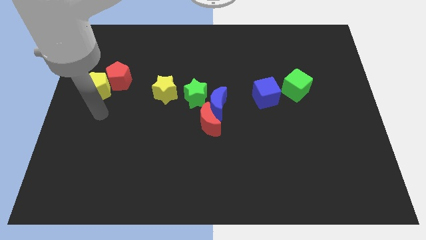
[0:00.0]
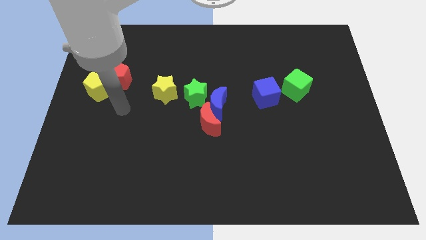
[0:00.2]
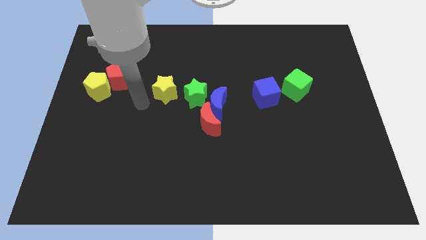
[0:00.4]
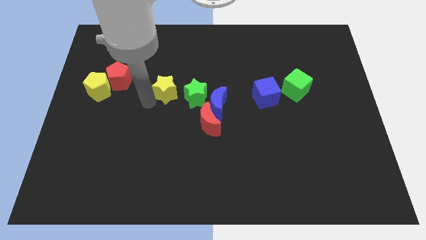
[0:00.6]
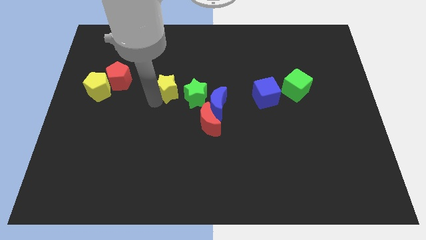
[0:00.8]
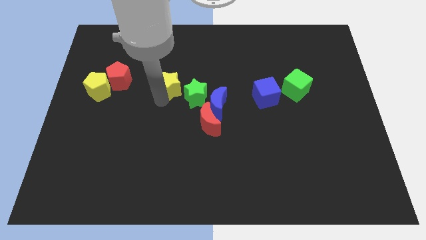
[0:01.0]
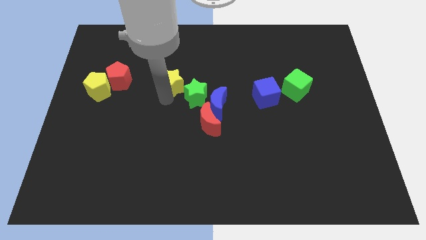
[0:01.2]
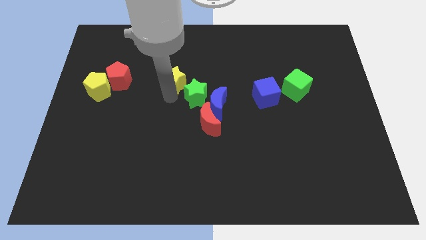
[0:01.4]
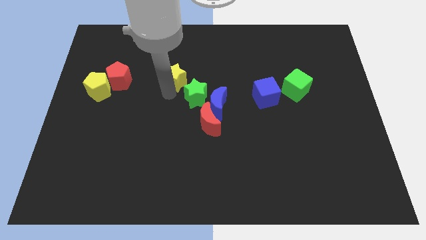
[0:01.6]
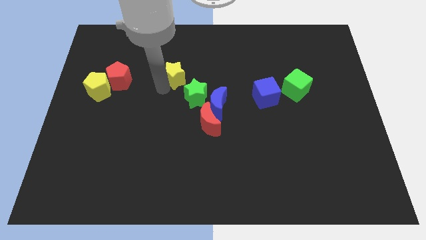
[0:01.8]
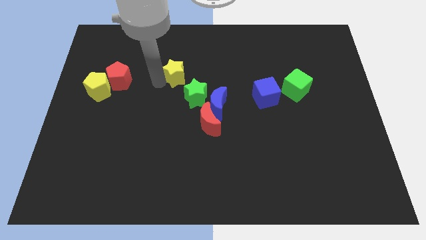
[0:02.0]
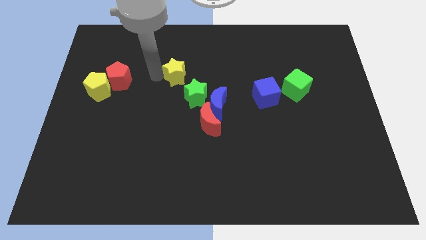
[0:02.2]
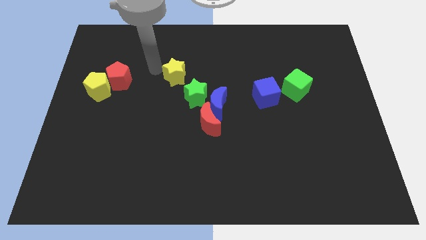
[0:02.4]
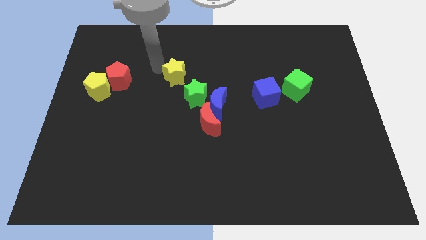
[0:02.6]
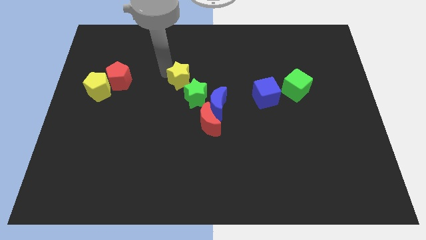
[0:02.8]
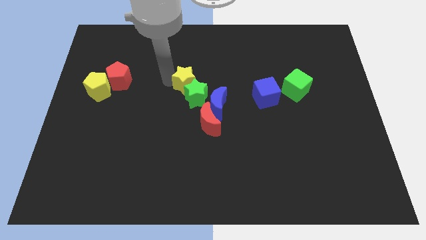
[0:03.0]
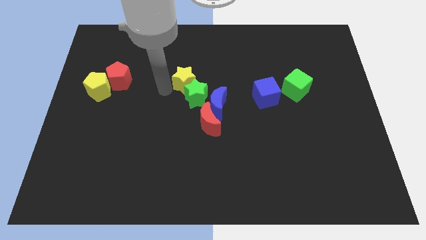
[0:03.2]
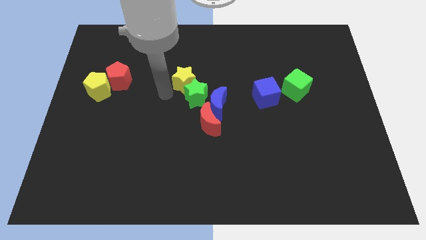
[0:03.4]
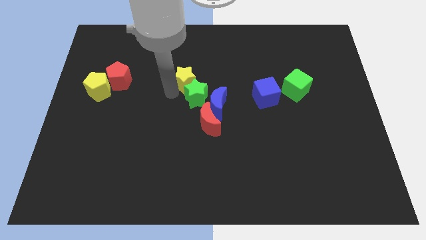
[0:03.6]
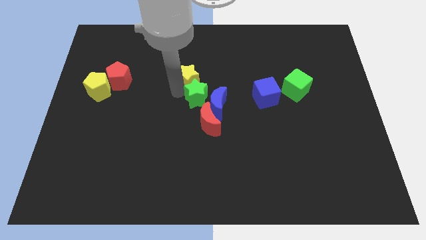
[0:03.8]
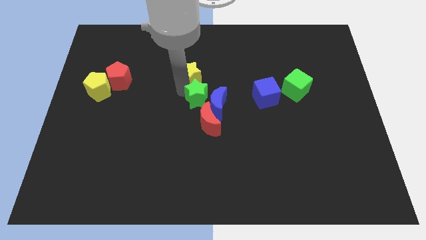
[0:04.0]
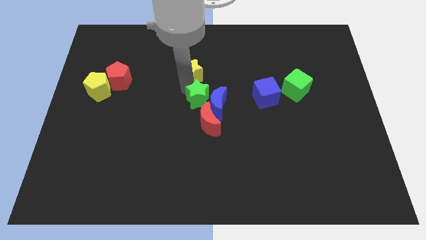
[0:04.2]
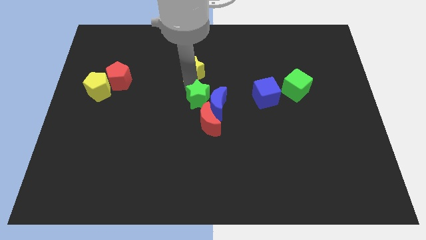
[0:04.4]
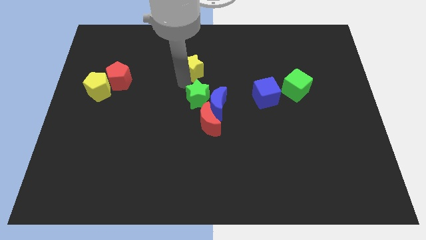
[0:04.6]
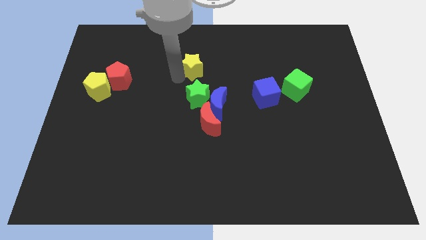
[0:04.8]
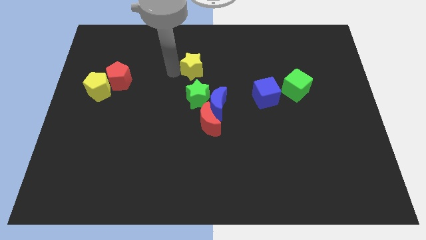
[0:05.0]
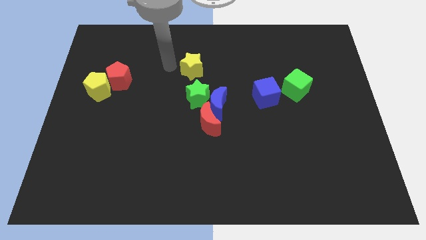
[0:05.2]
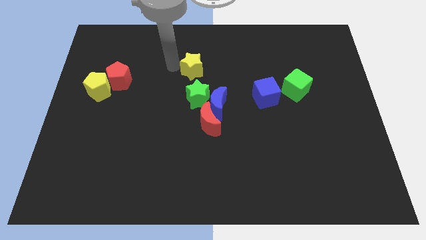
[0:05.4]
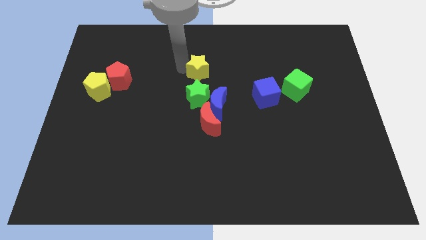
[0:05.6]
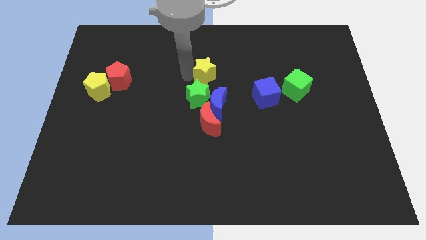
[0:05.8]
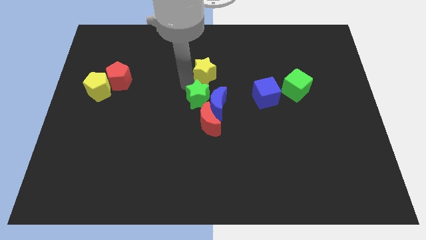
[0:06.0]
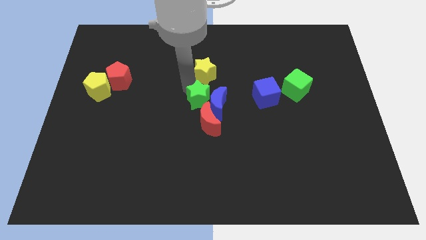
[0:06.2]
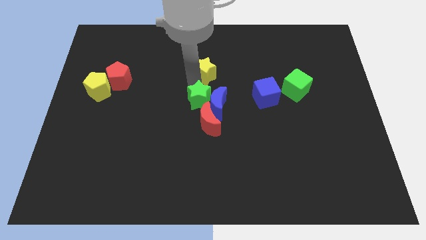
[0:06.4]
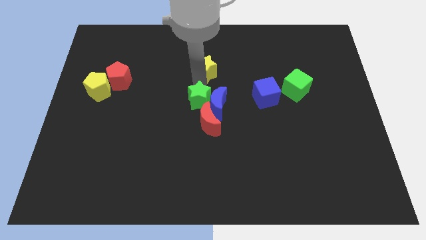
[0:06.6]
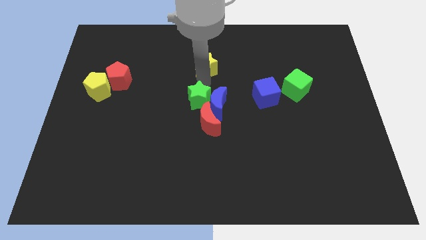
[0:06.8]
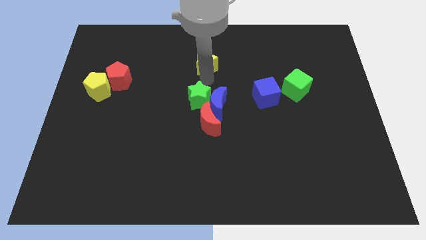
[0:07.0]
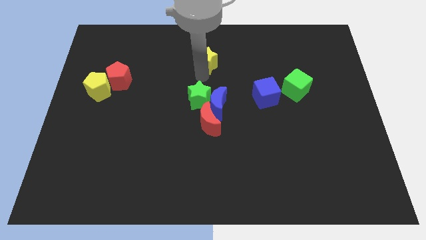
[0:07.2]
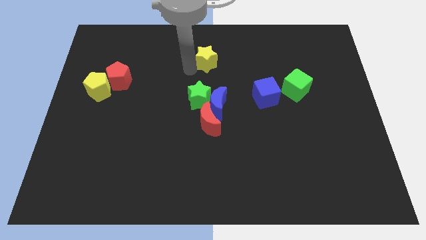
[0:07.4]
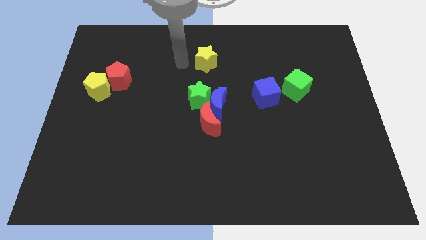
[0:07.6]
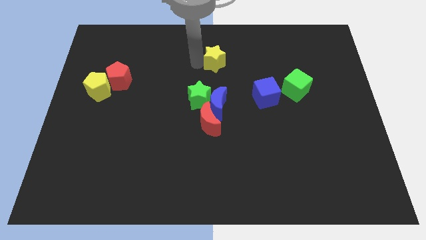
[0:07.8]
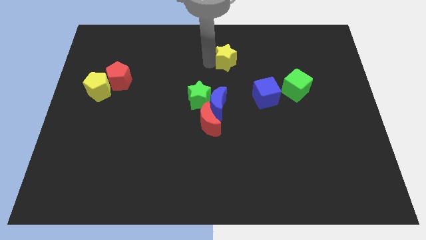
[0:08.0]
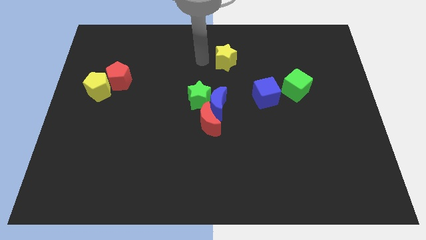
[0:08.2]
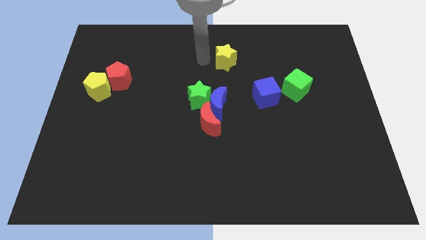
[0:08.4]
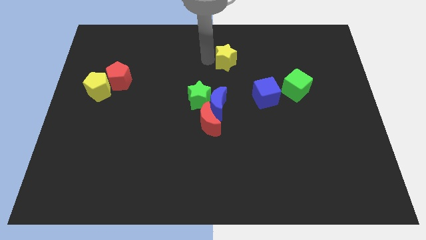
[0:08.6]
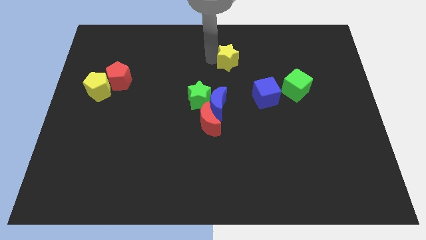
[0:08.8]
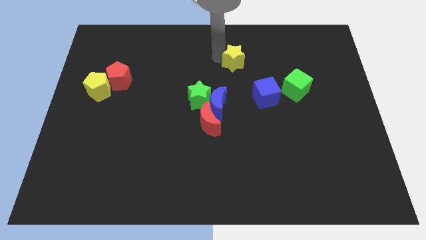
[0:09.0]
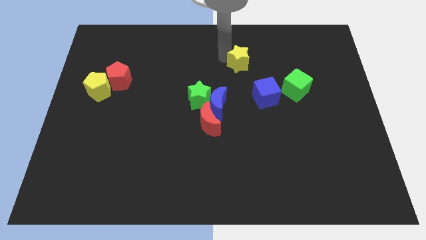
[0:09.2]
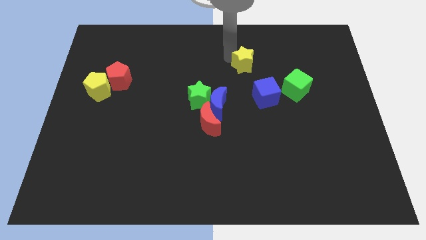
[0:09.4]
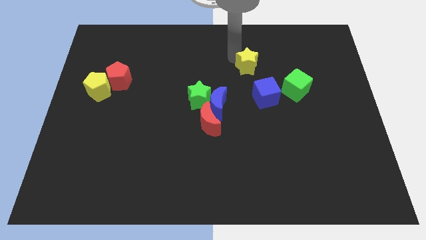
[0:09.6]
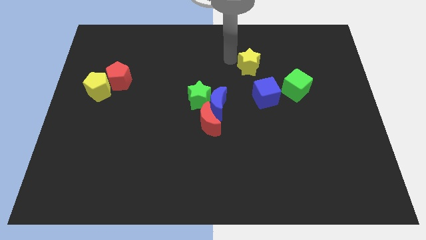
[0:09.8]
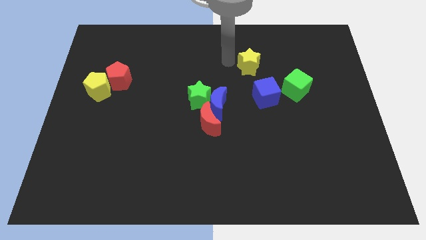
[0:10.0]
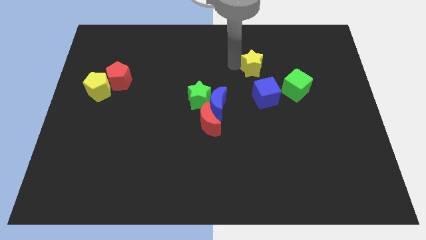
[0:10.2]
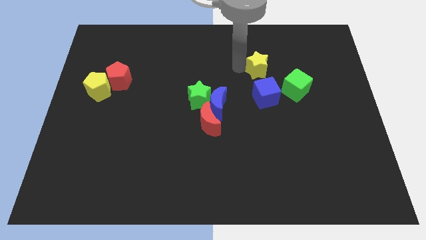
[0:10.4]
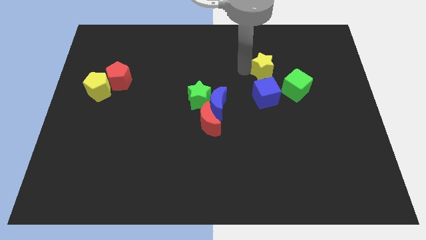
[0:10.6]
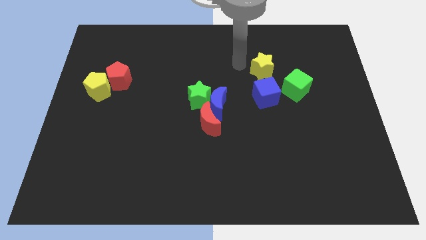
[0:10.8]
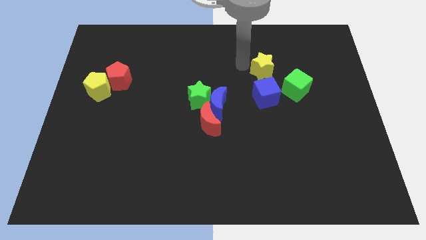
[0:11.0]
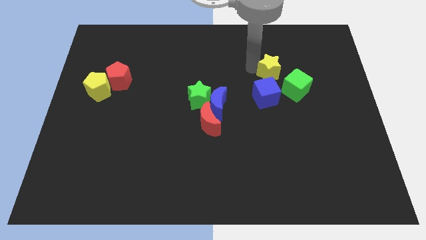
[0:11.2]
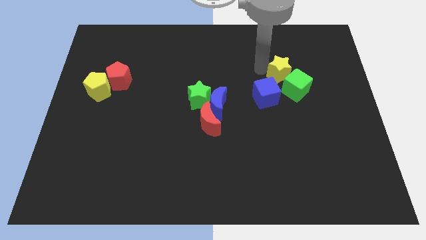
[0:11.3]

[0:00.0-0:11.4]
move the yellow star next to the green cube

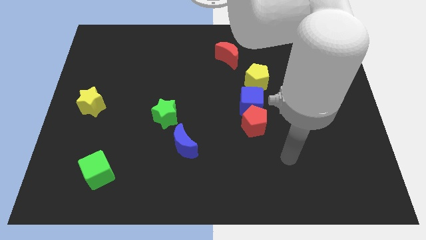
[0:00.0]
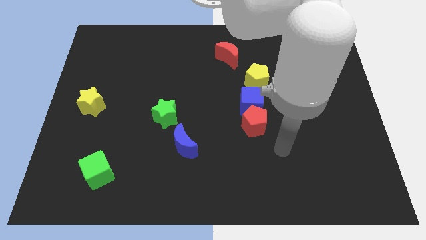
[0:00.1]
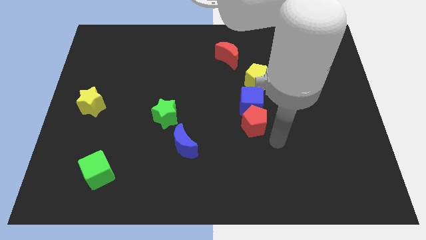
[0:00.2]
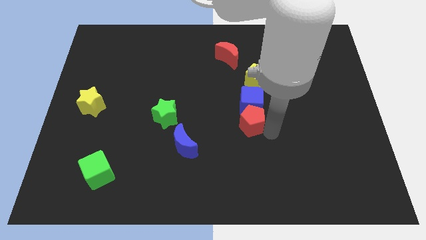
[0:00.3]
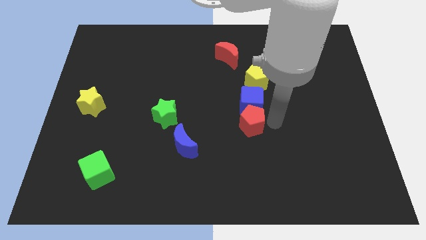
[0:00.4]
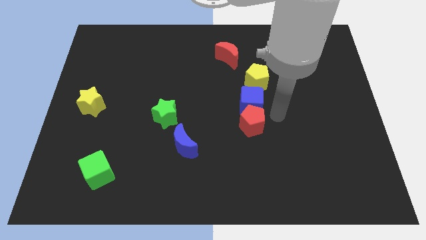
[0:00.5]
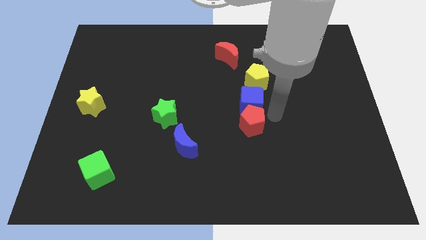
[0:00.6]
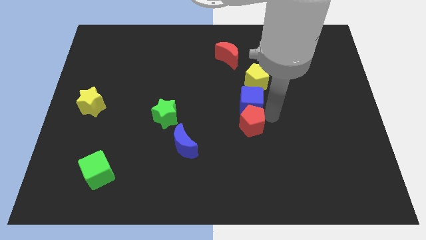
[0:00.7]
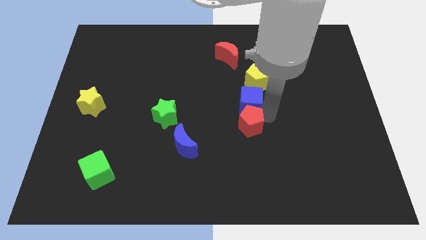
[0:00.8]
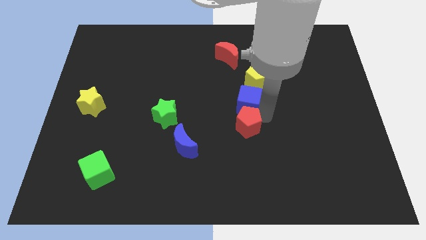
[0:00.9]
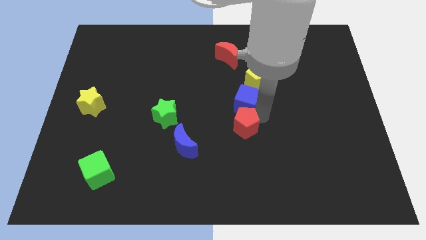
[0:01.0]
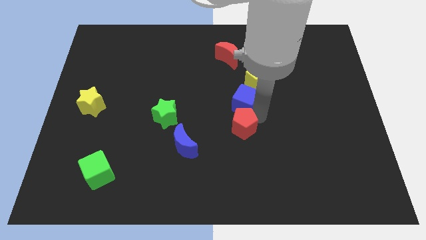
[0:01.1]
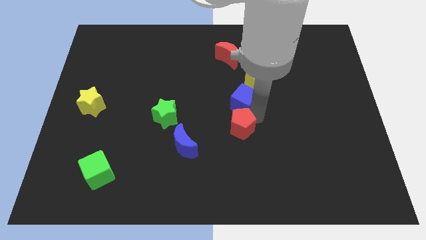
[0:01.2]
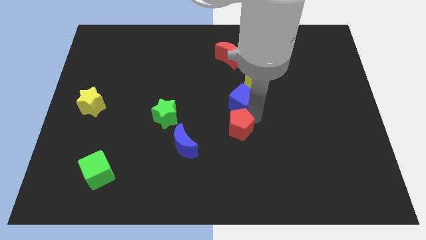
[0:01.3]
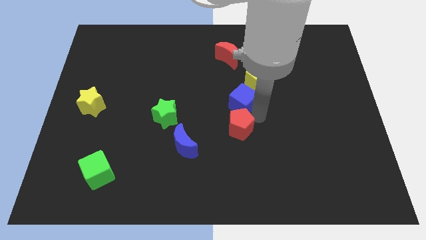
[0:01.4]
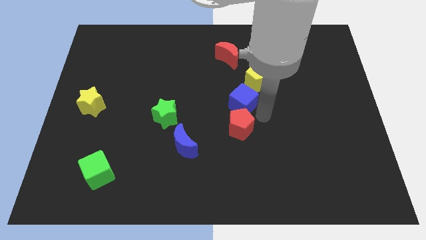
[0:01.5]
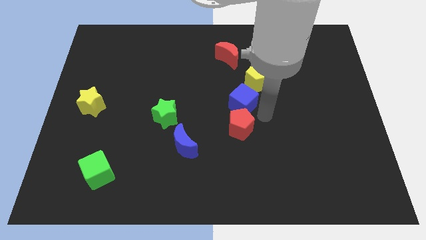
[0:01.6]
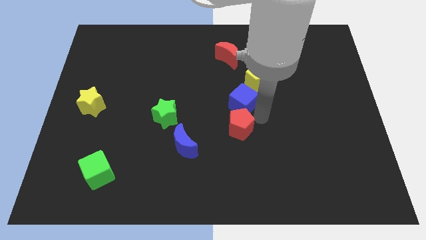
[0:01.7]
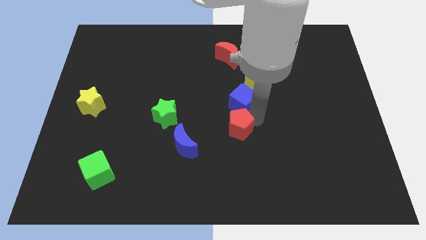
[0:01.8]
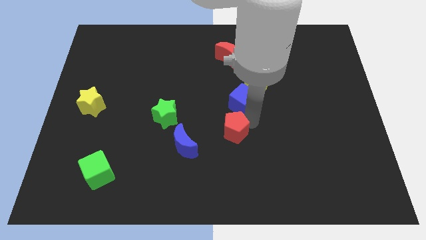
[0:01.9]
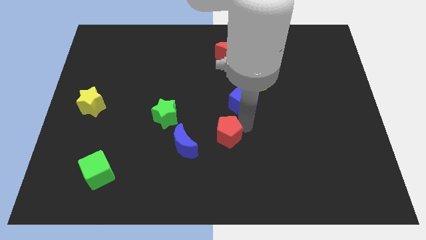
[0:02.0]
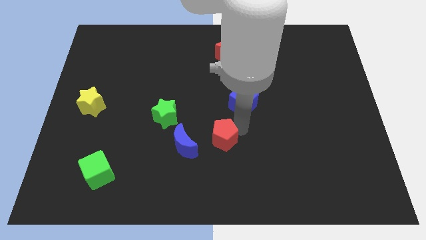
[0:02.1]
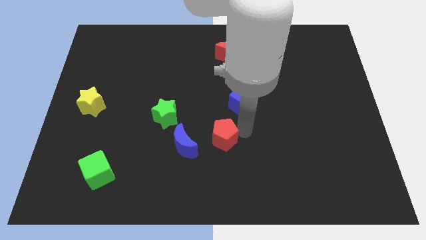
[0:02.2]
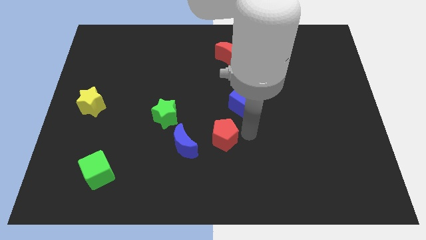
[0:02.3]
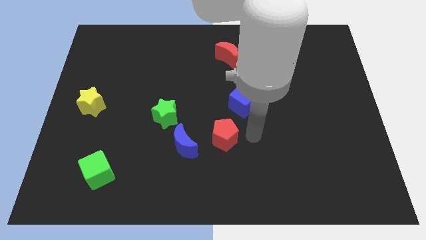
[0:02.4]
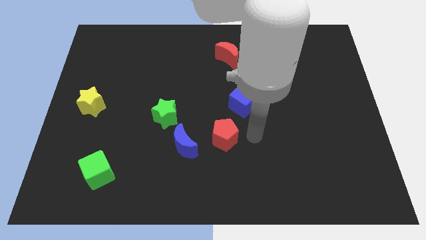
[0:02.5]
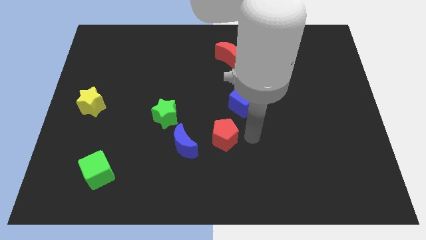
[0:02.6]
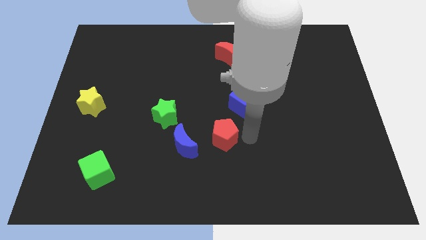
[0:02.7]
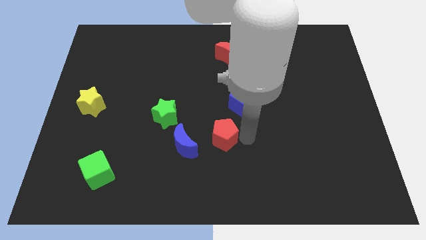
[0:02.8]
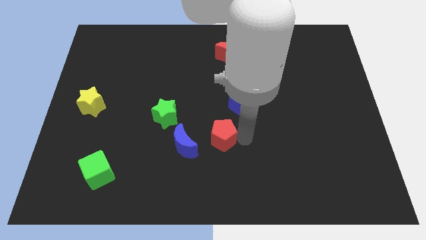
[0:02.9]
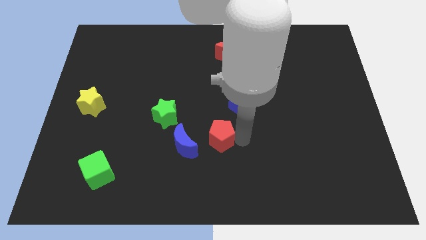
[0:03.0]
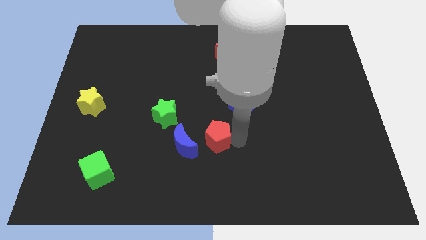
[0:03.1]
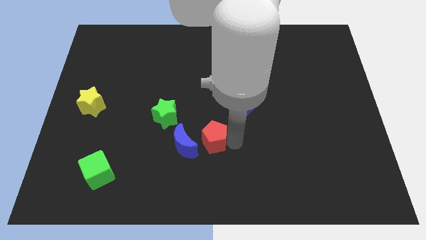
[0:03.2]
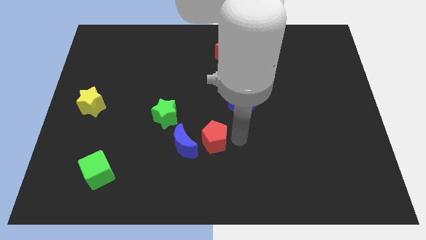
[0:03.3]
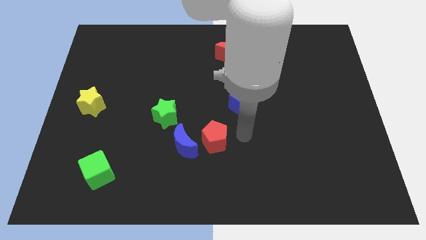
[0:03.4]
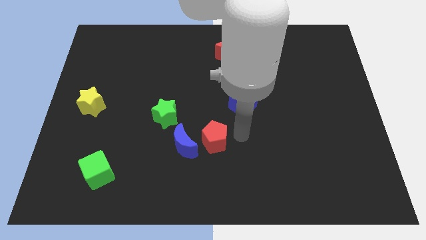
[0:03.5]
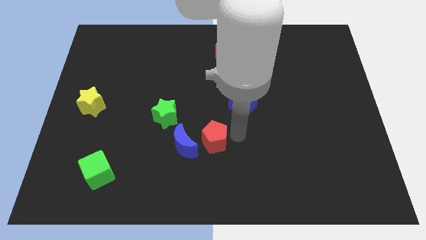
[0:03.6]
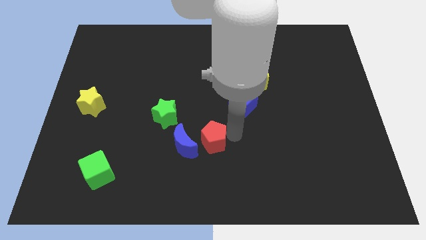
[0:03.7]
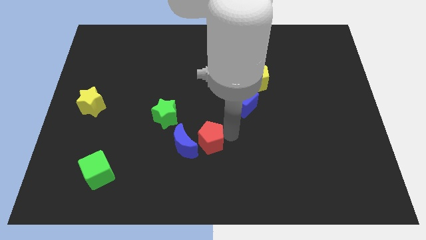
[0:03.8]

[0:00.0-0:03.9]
move the red pentagon close to the blue moon
